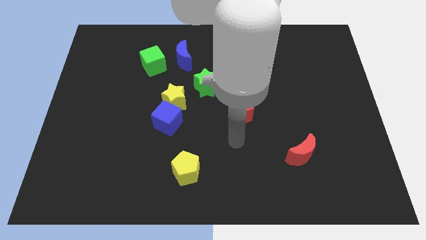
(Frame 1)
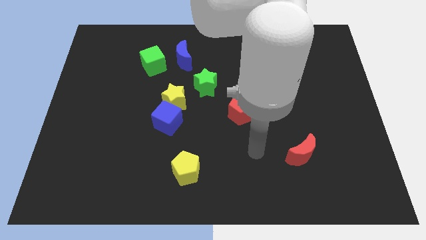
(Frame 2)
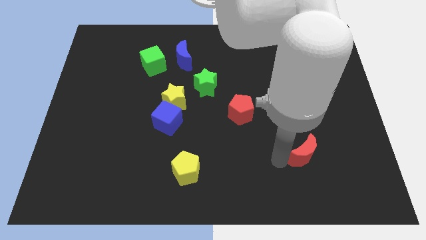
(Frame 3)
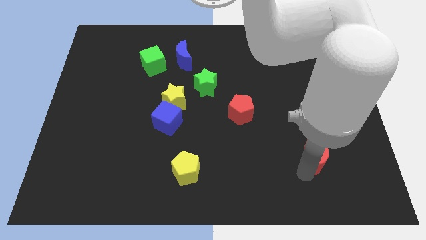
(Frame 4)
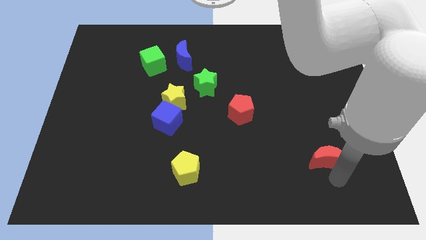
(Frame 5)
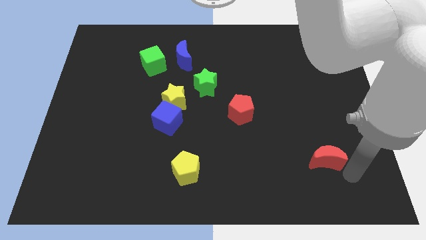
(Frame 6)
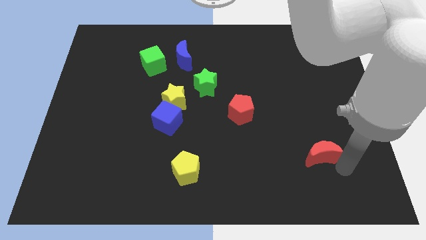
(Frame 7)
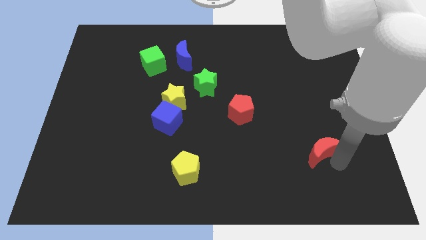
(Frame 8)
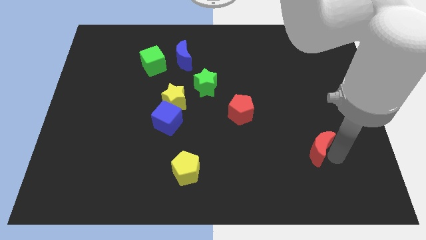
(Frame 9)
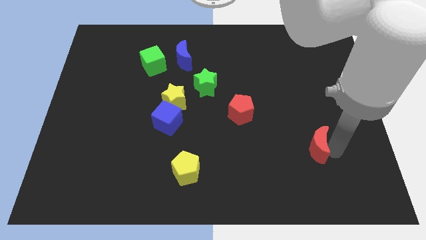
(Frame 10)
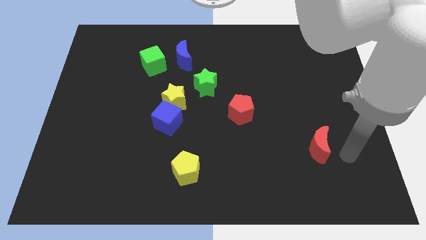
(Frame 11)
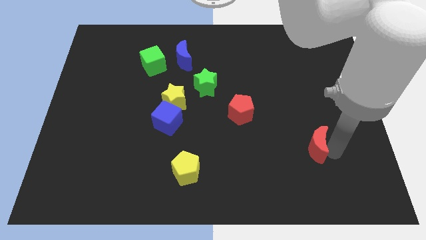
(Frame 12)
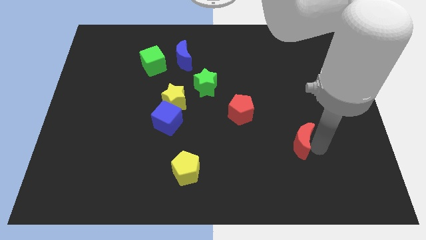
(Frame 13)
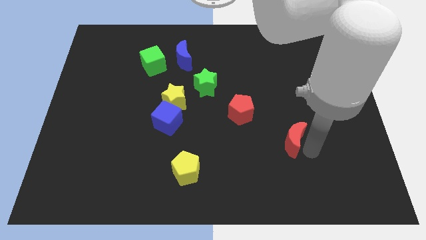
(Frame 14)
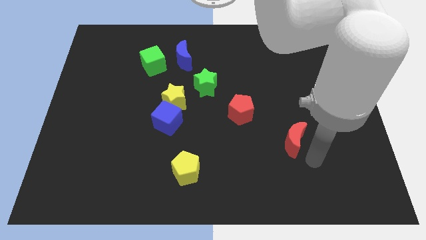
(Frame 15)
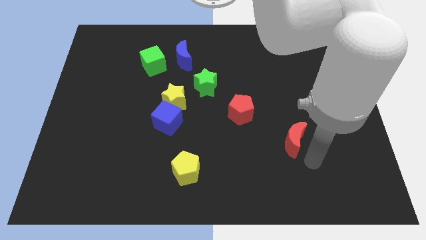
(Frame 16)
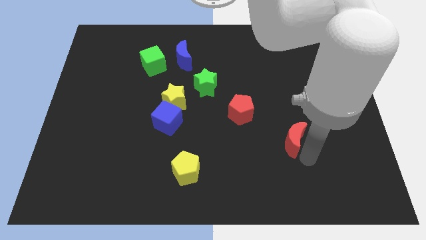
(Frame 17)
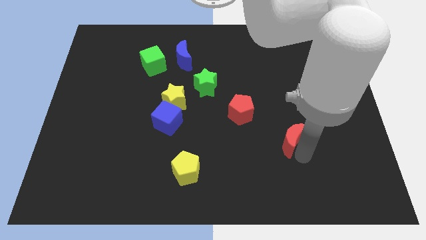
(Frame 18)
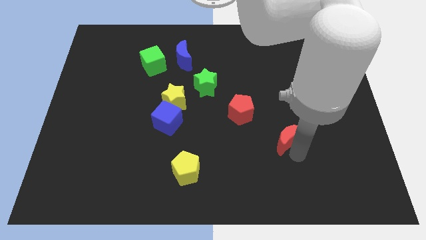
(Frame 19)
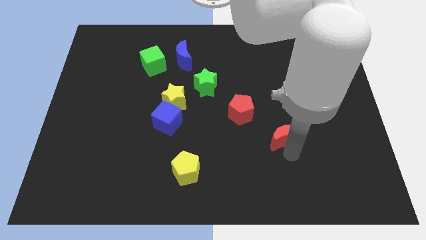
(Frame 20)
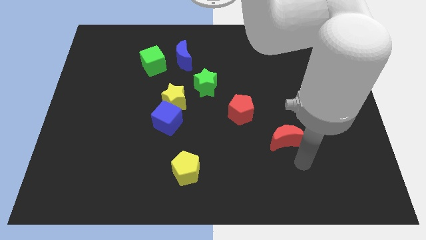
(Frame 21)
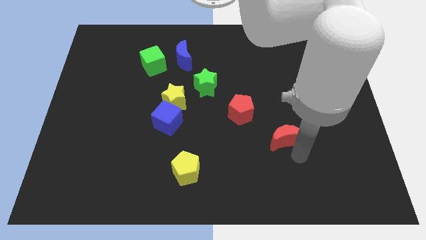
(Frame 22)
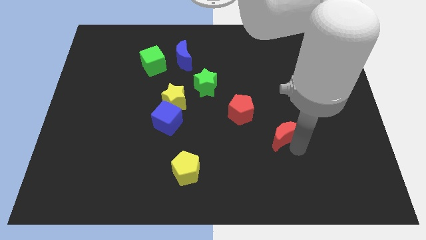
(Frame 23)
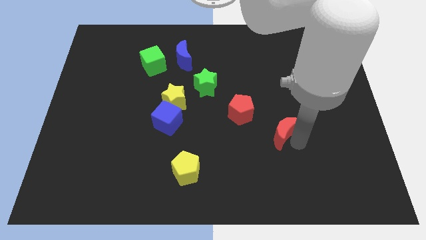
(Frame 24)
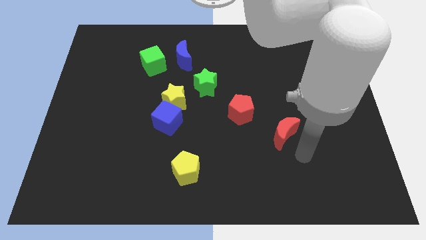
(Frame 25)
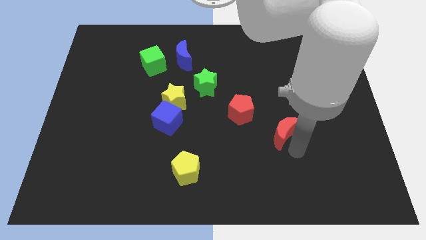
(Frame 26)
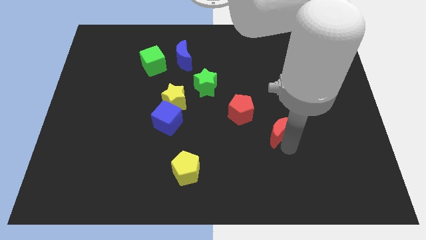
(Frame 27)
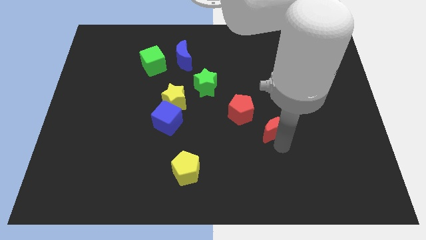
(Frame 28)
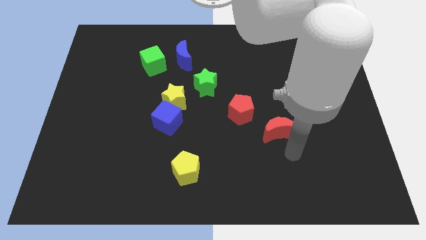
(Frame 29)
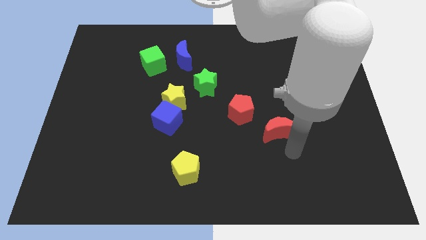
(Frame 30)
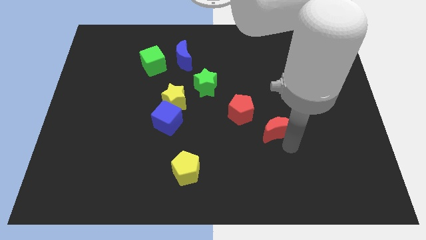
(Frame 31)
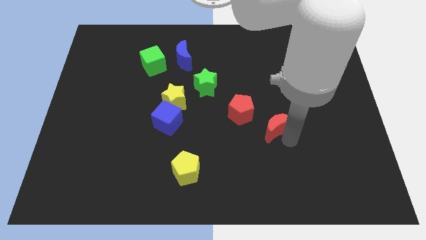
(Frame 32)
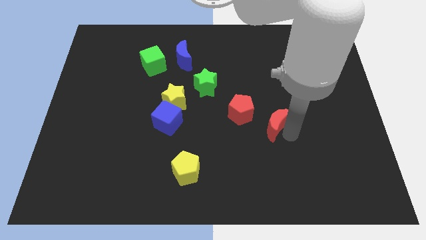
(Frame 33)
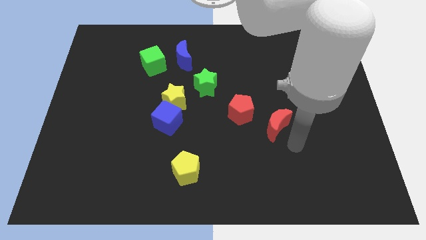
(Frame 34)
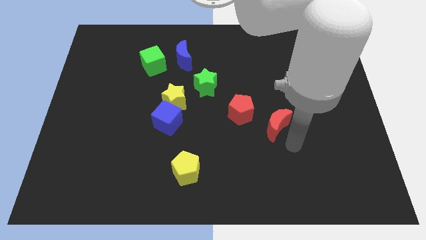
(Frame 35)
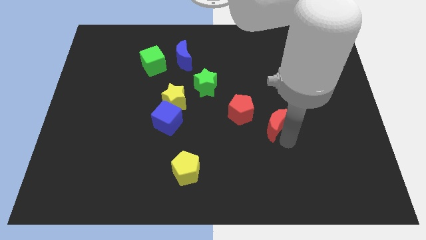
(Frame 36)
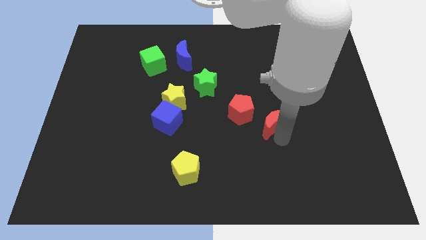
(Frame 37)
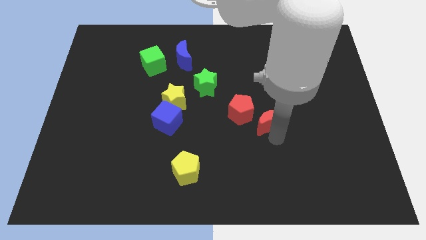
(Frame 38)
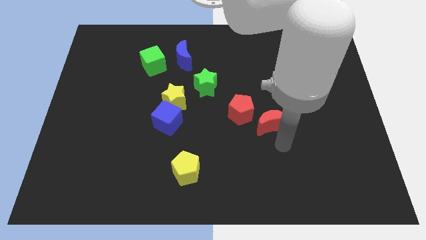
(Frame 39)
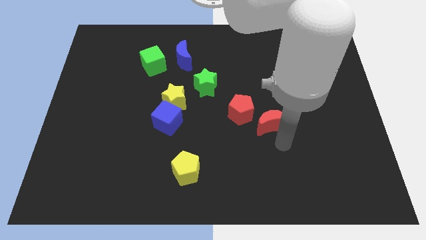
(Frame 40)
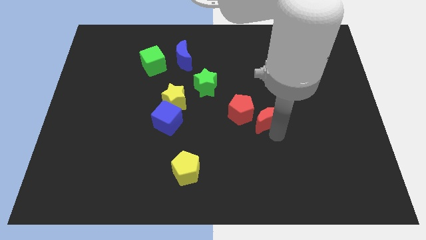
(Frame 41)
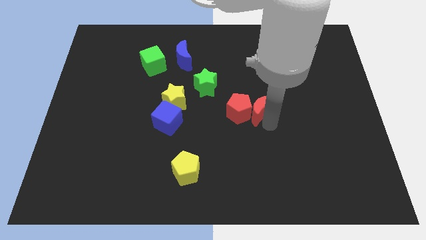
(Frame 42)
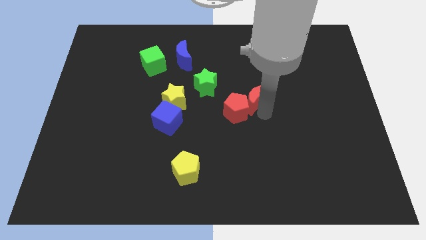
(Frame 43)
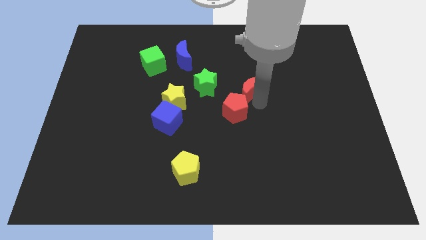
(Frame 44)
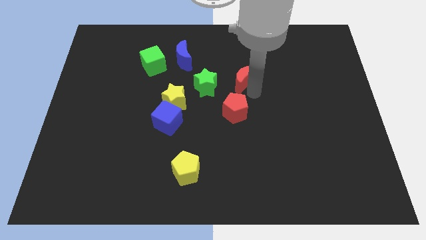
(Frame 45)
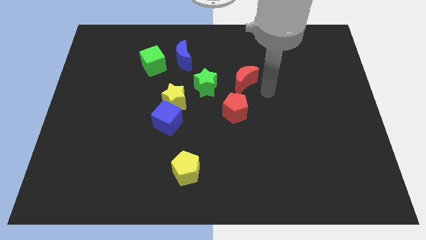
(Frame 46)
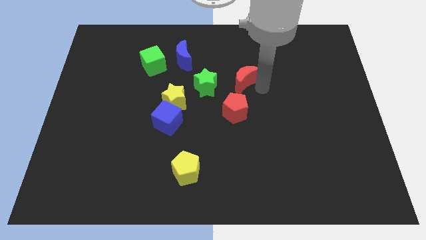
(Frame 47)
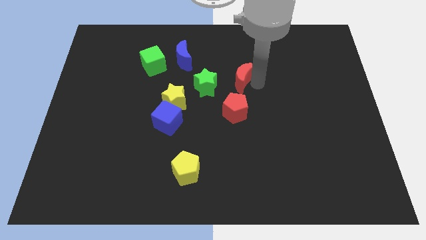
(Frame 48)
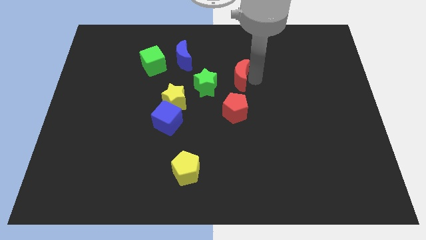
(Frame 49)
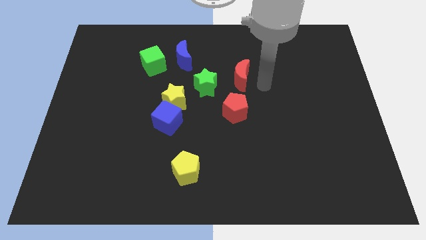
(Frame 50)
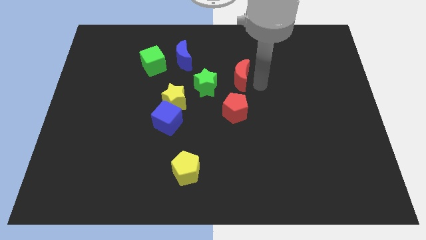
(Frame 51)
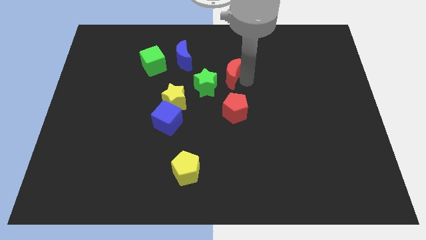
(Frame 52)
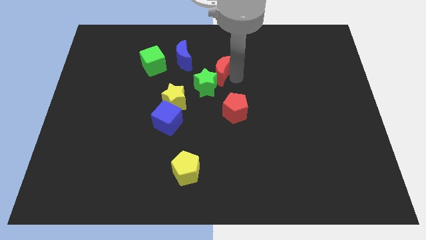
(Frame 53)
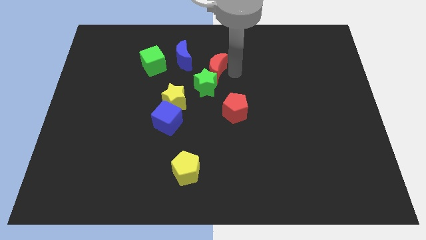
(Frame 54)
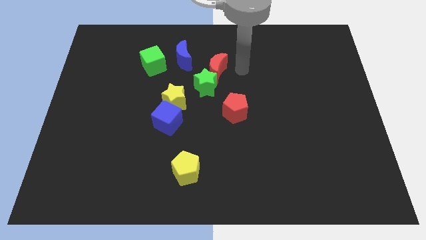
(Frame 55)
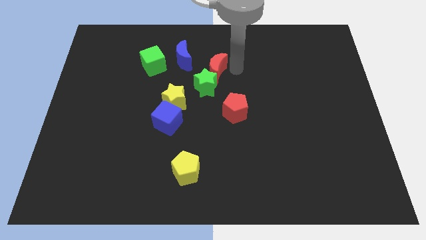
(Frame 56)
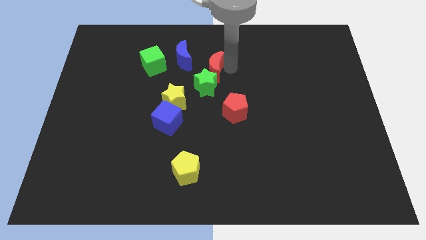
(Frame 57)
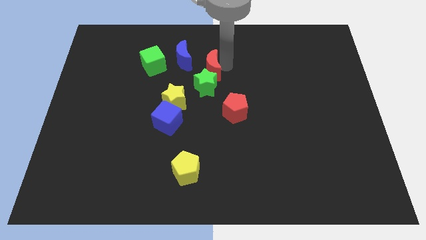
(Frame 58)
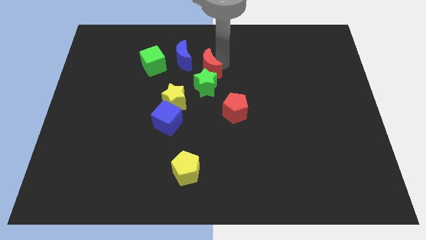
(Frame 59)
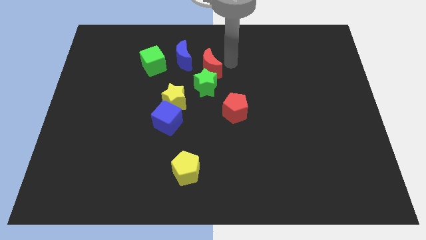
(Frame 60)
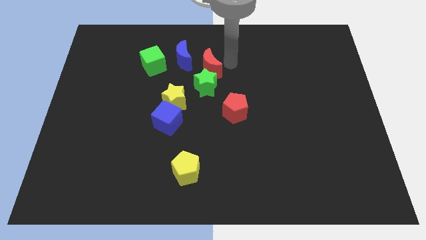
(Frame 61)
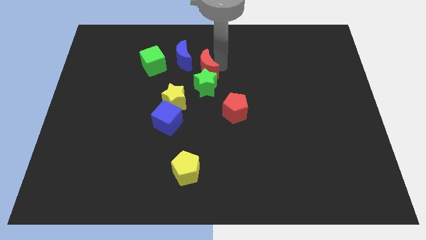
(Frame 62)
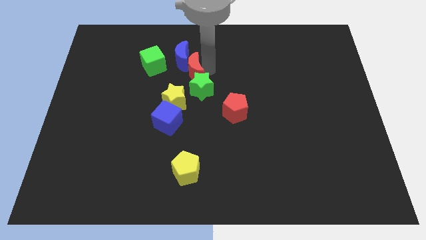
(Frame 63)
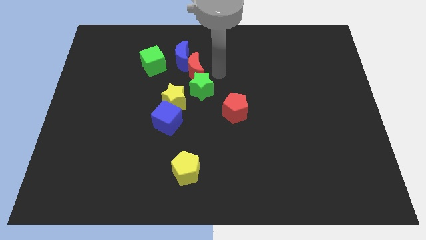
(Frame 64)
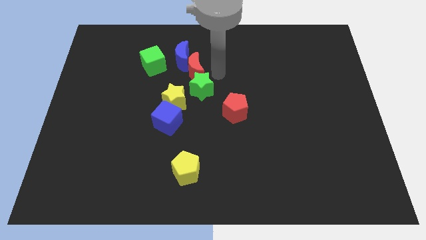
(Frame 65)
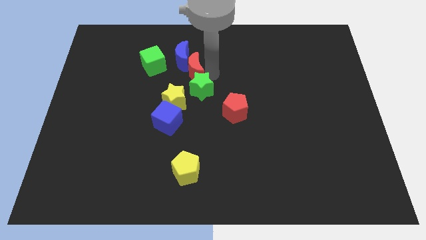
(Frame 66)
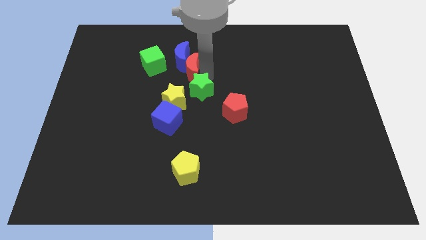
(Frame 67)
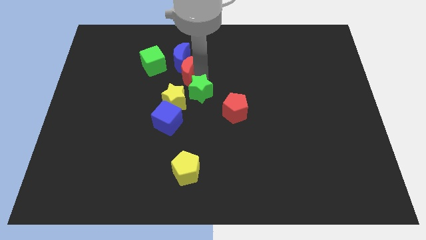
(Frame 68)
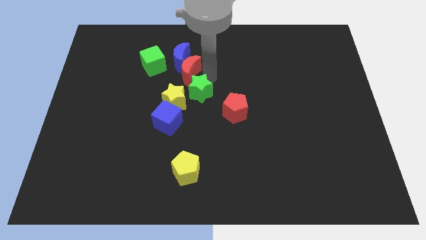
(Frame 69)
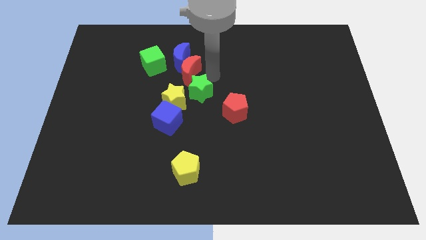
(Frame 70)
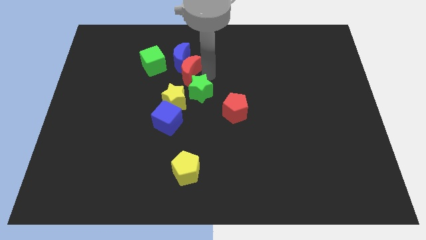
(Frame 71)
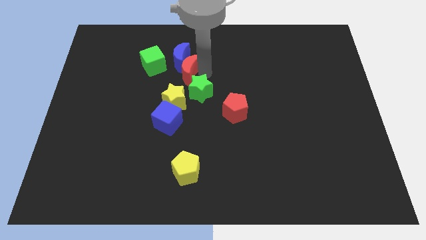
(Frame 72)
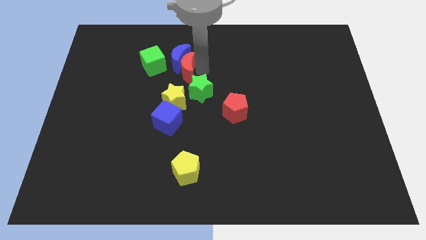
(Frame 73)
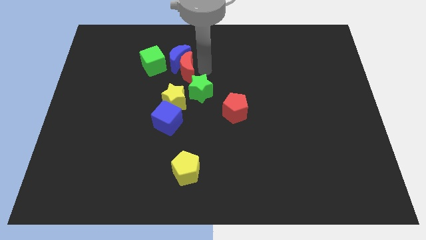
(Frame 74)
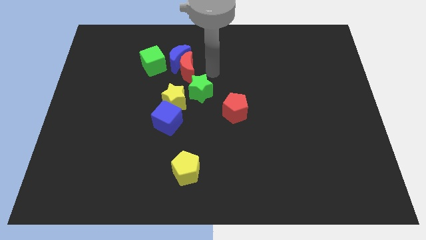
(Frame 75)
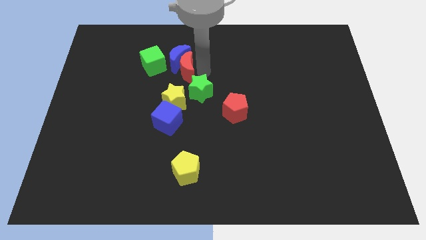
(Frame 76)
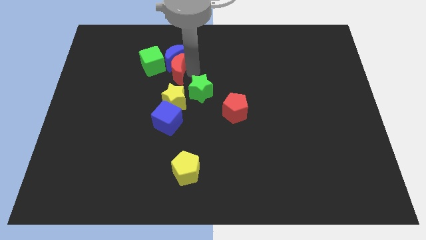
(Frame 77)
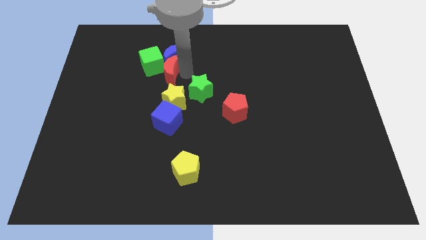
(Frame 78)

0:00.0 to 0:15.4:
move the red moon next to the green cube
